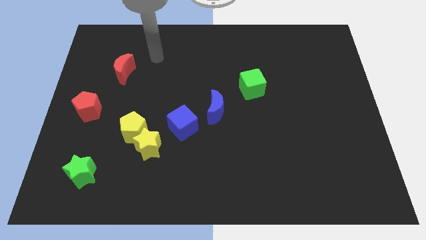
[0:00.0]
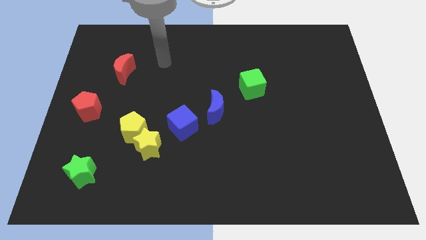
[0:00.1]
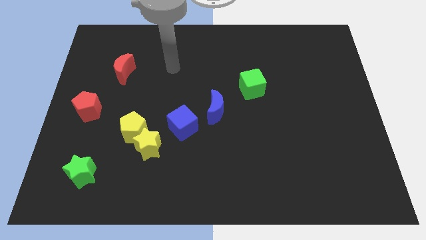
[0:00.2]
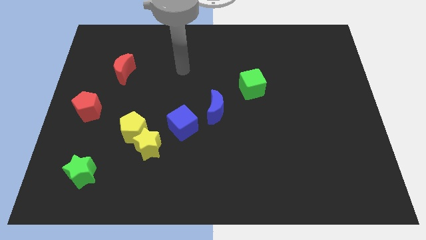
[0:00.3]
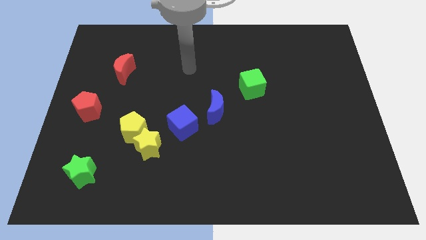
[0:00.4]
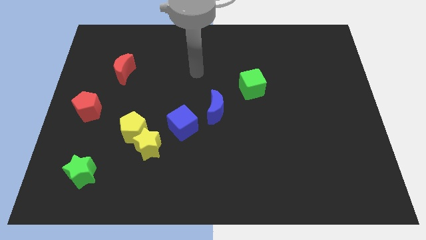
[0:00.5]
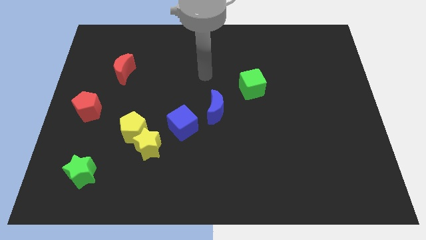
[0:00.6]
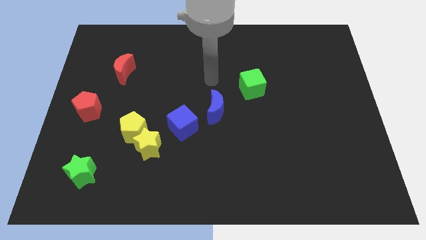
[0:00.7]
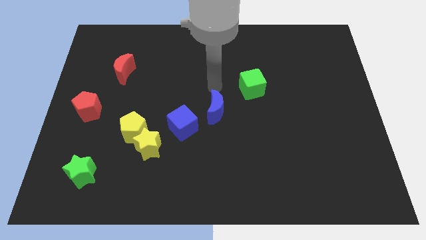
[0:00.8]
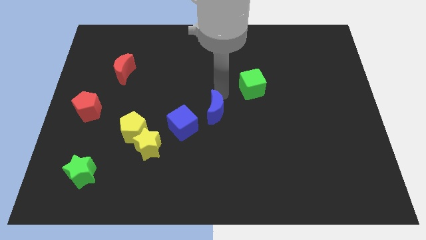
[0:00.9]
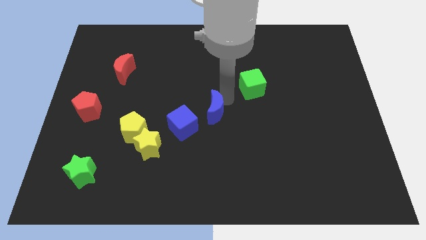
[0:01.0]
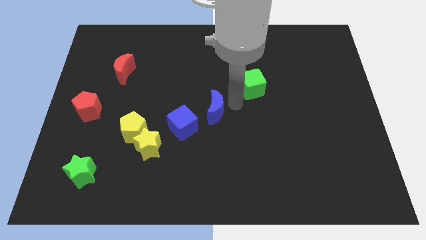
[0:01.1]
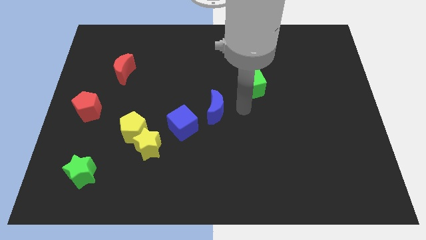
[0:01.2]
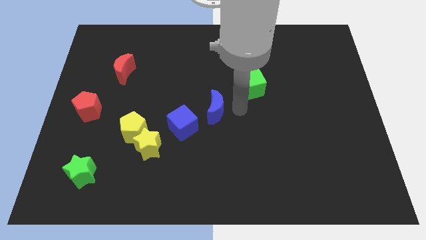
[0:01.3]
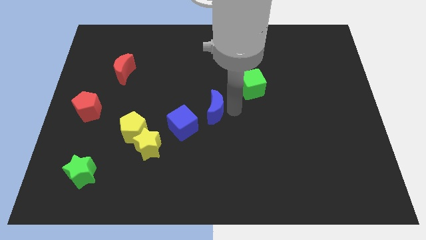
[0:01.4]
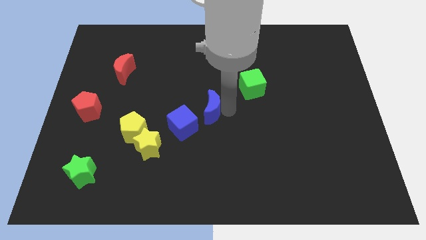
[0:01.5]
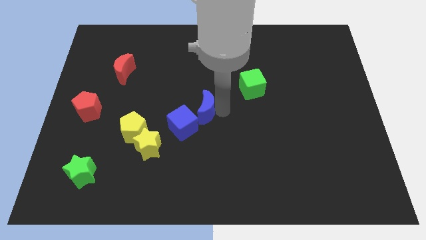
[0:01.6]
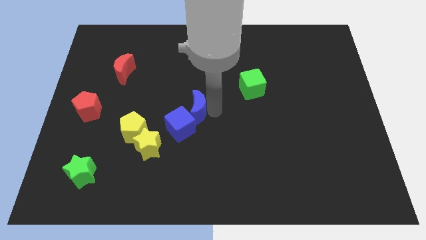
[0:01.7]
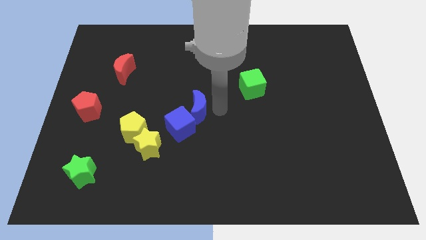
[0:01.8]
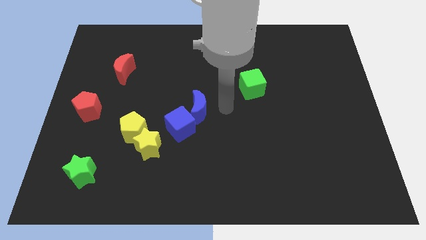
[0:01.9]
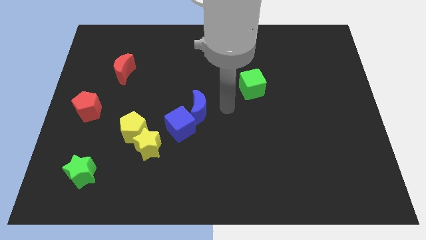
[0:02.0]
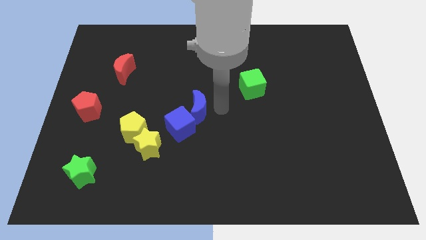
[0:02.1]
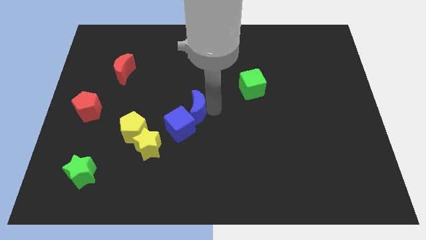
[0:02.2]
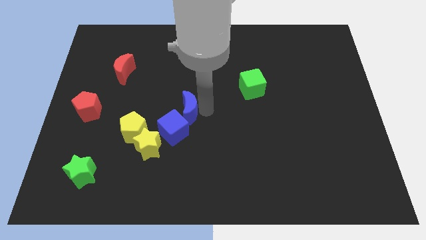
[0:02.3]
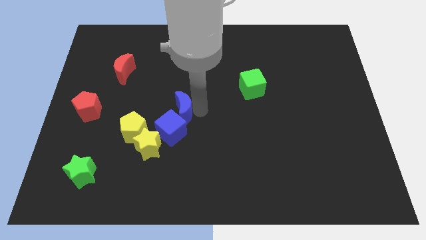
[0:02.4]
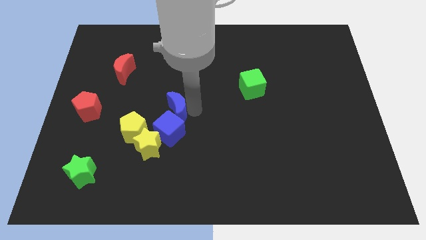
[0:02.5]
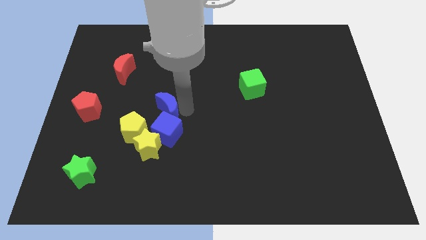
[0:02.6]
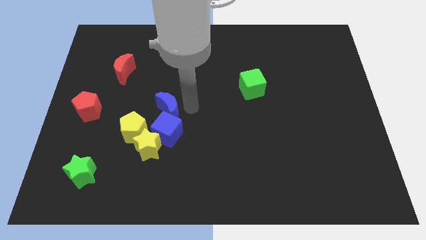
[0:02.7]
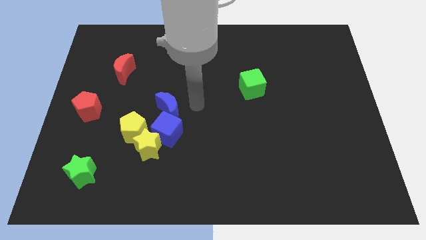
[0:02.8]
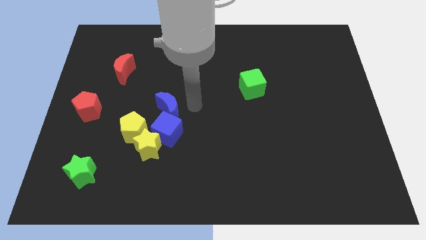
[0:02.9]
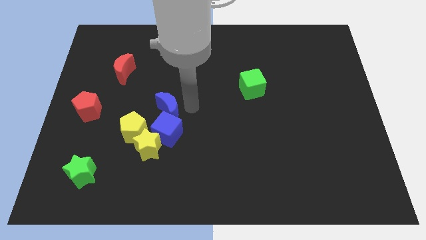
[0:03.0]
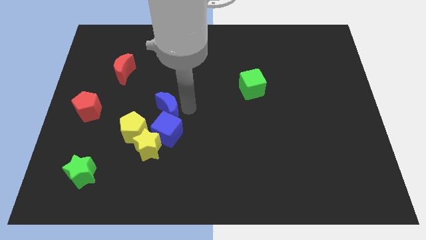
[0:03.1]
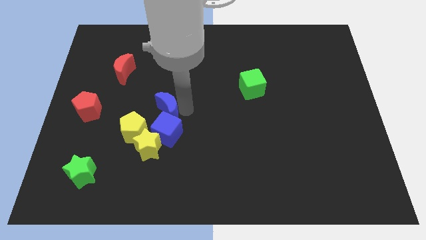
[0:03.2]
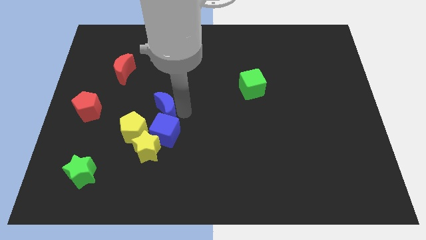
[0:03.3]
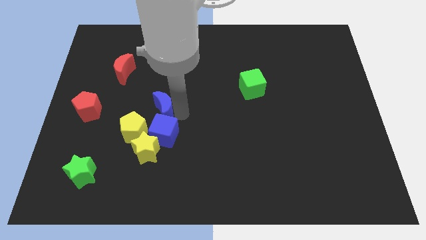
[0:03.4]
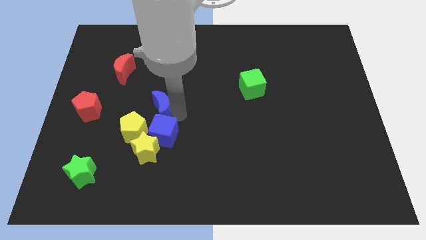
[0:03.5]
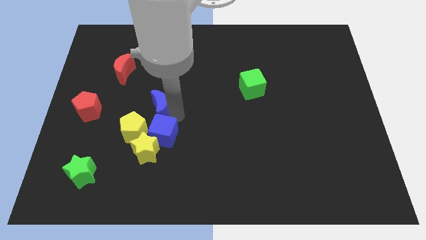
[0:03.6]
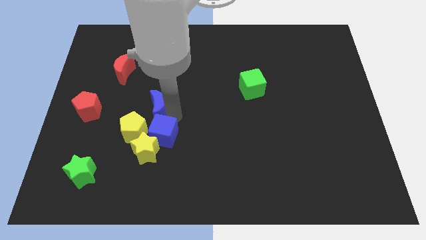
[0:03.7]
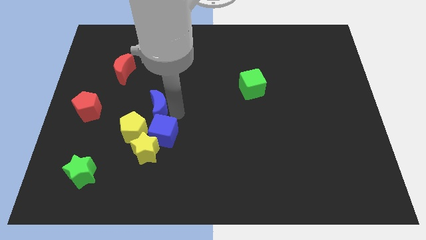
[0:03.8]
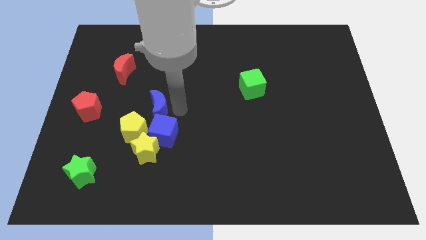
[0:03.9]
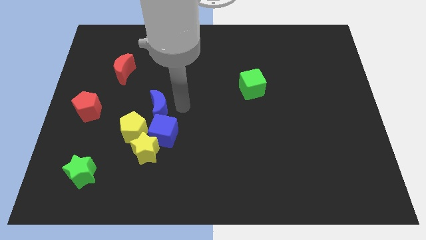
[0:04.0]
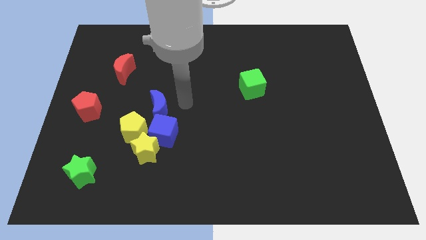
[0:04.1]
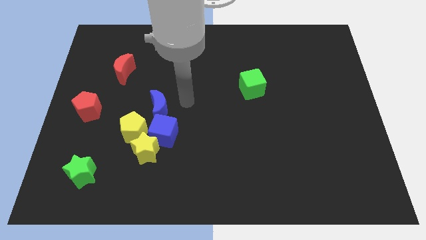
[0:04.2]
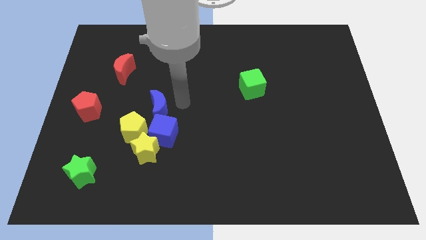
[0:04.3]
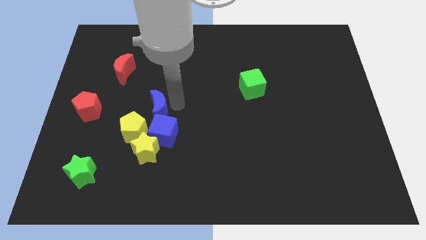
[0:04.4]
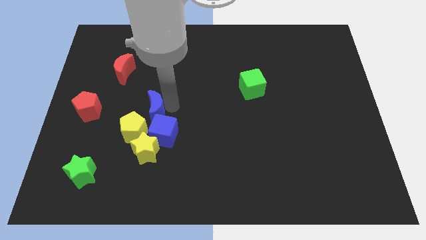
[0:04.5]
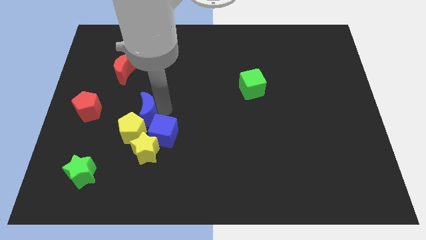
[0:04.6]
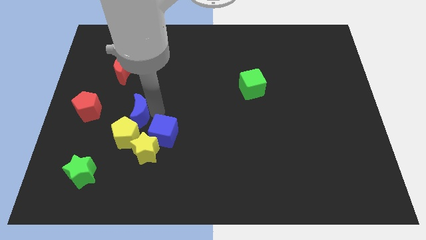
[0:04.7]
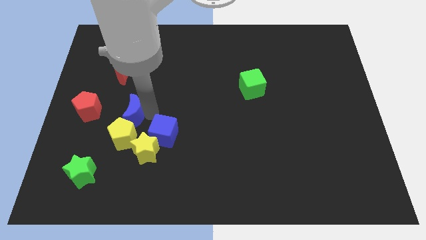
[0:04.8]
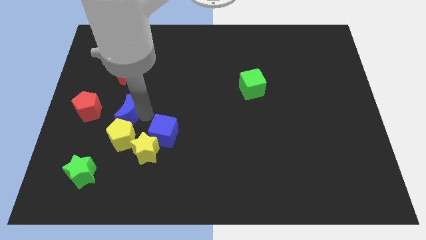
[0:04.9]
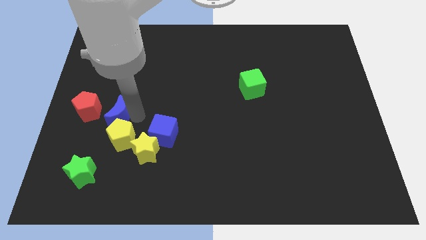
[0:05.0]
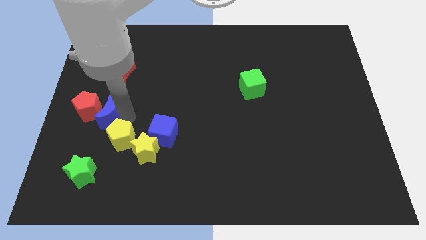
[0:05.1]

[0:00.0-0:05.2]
put the blue moon close to the red pentagon

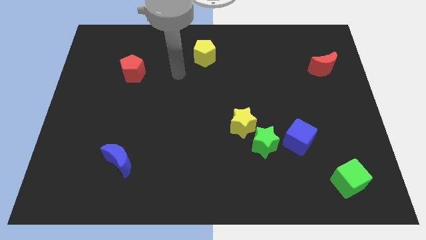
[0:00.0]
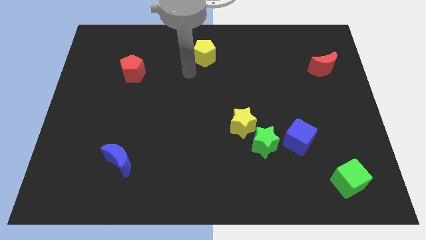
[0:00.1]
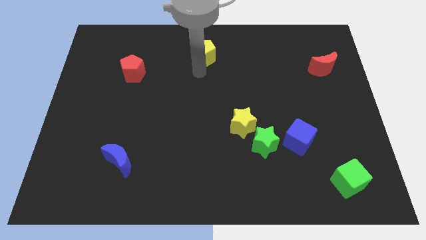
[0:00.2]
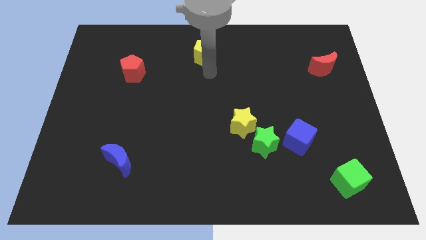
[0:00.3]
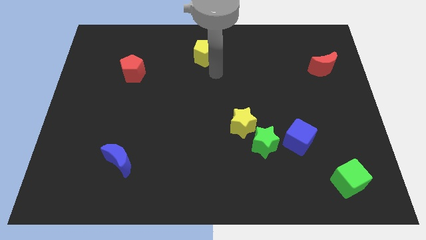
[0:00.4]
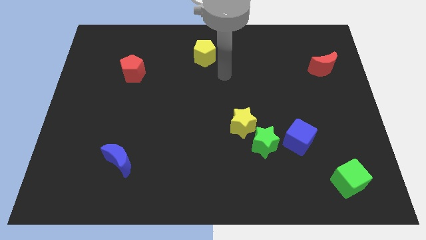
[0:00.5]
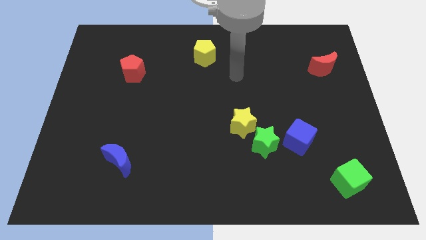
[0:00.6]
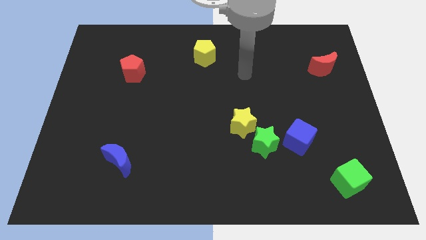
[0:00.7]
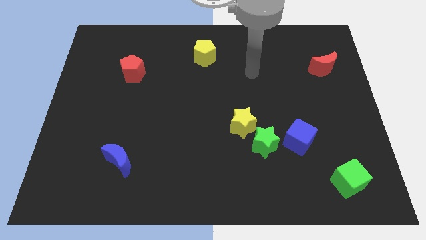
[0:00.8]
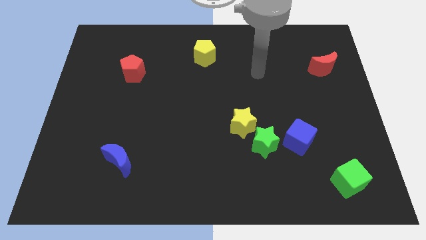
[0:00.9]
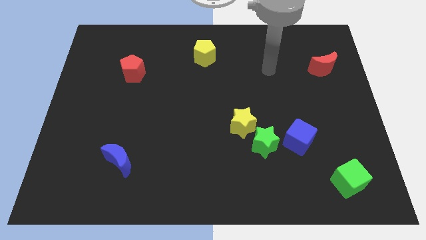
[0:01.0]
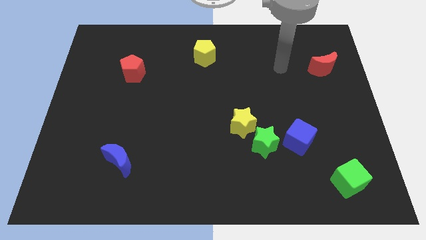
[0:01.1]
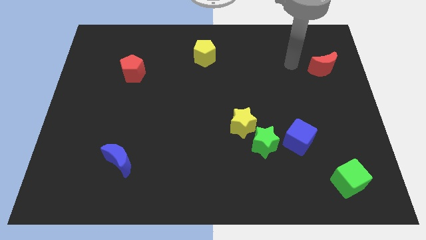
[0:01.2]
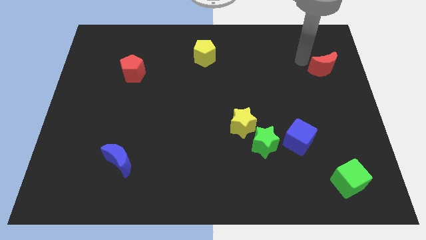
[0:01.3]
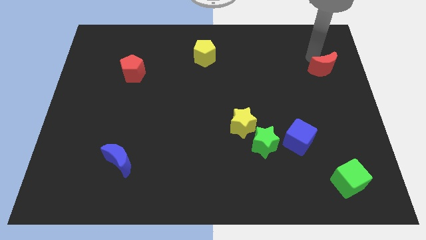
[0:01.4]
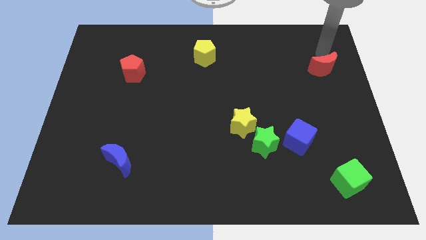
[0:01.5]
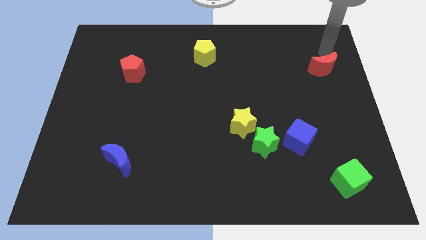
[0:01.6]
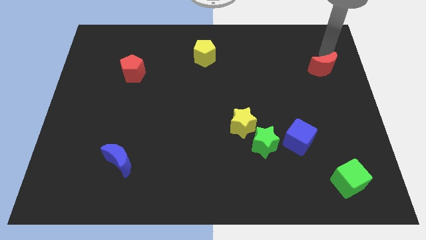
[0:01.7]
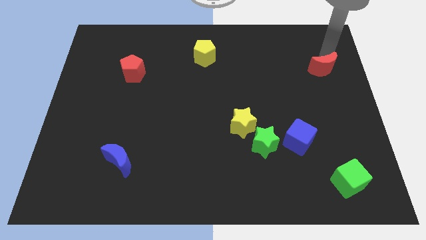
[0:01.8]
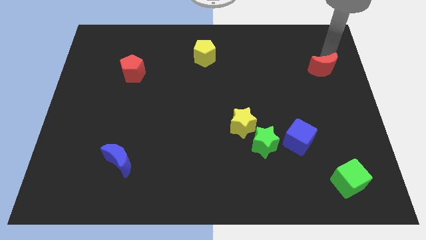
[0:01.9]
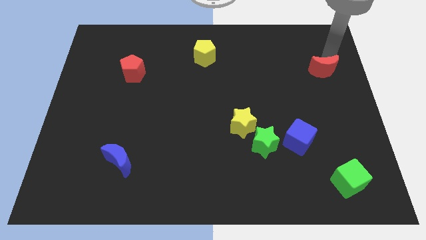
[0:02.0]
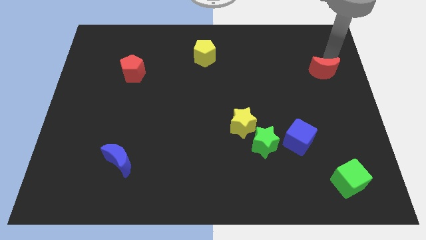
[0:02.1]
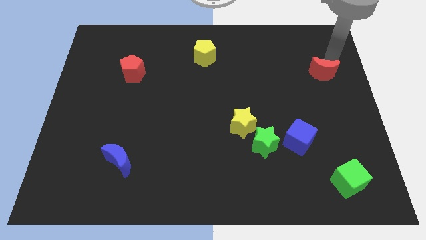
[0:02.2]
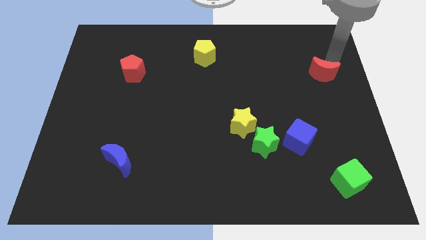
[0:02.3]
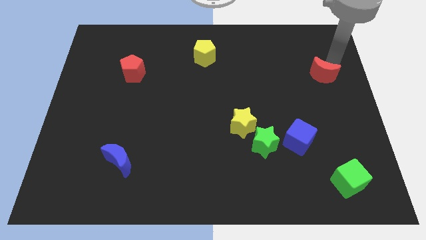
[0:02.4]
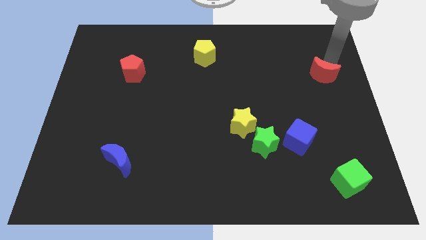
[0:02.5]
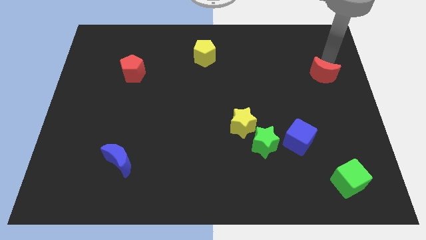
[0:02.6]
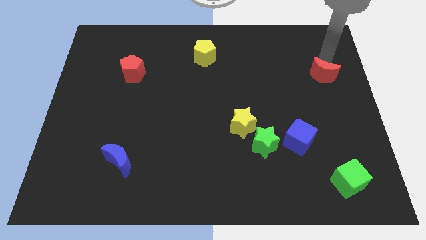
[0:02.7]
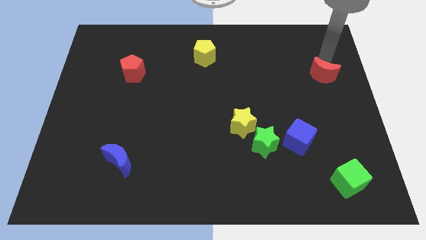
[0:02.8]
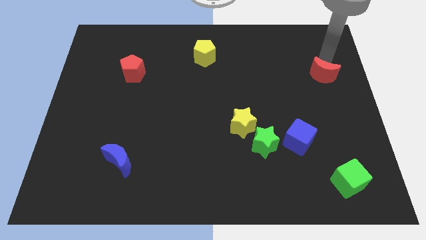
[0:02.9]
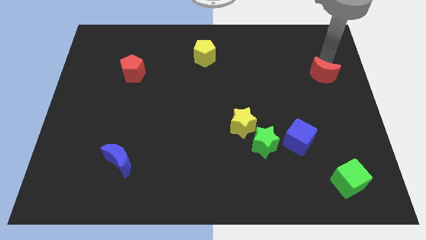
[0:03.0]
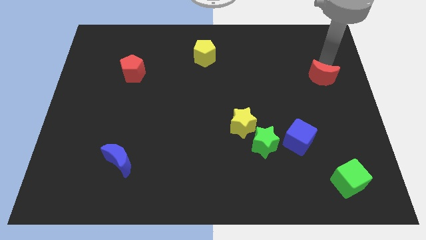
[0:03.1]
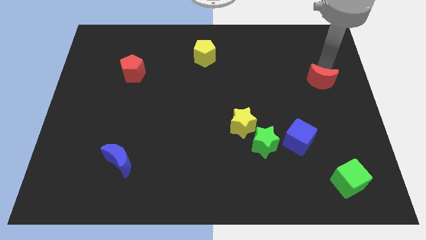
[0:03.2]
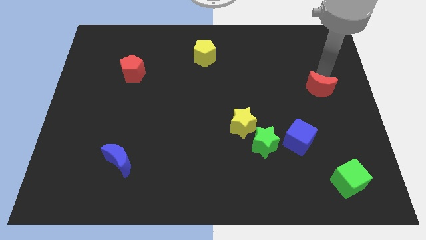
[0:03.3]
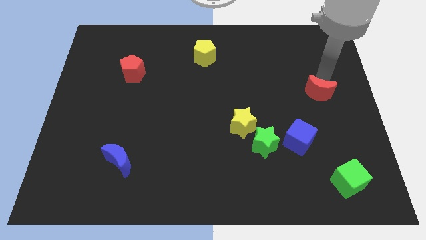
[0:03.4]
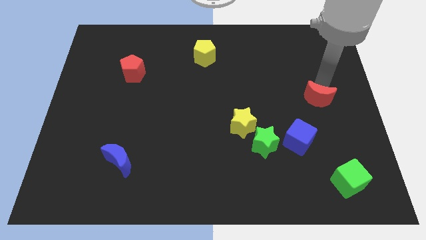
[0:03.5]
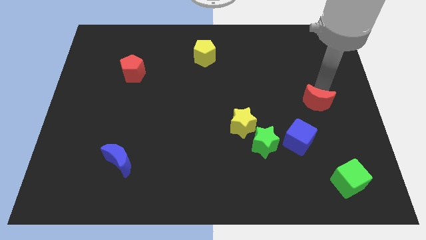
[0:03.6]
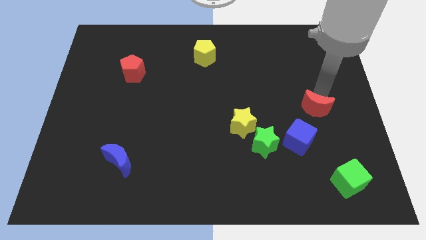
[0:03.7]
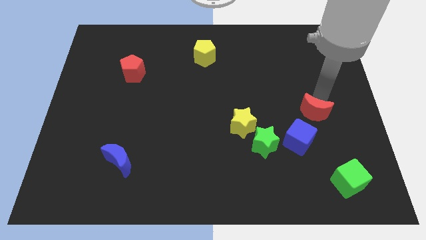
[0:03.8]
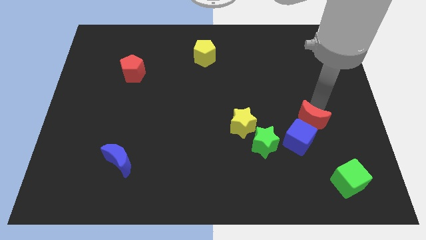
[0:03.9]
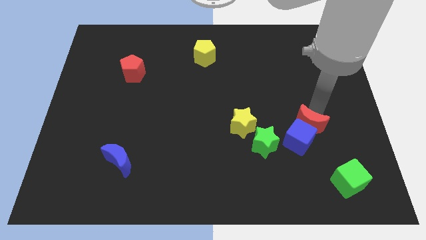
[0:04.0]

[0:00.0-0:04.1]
slide the red moon towards the blue cube
